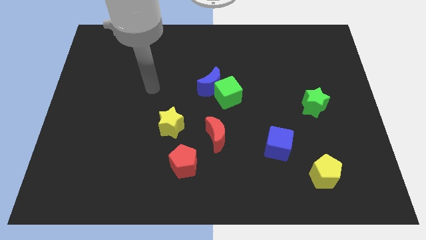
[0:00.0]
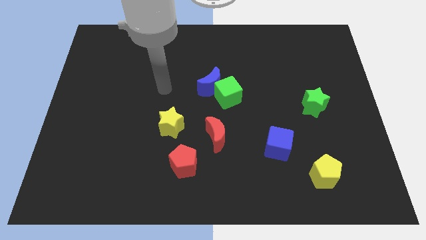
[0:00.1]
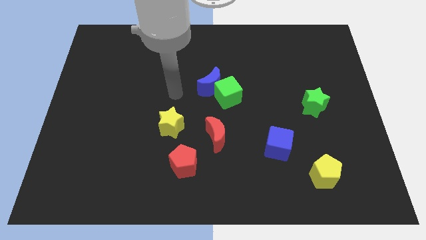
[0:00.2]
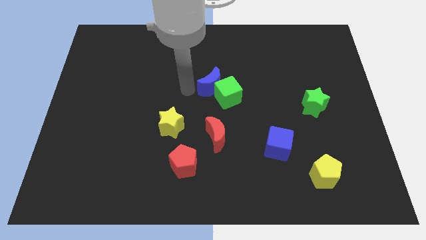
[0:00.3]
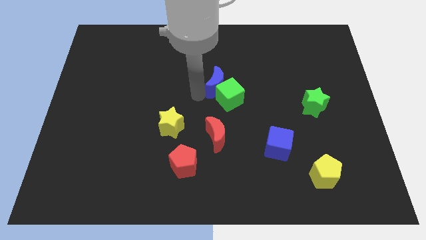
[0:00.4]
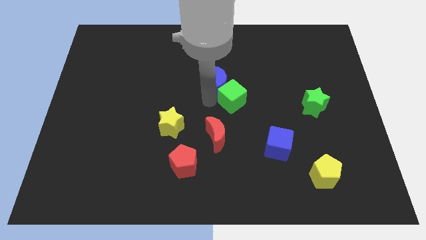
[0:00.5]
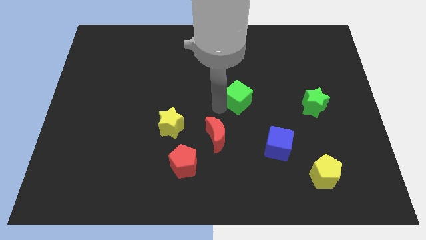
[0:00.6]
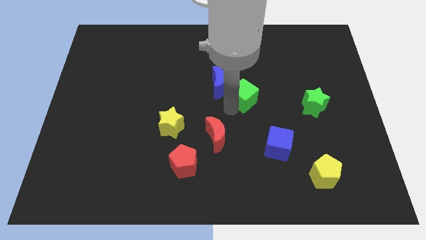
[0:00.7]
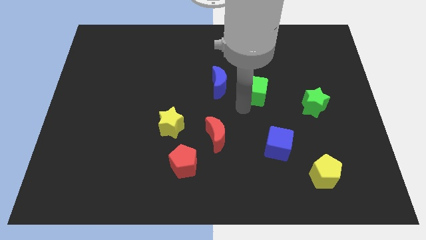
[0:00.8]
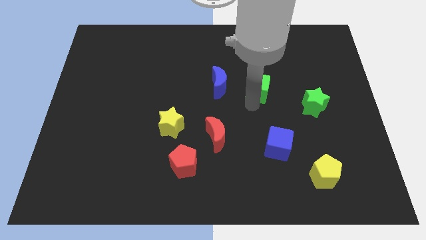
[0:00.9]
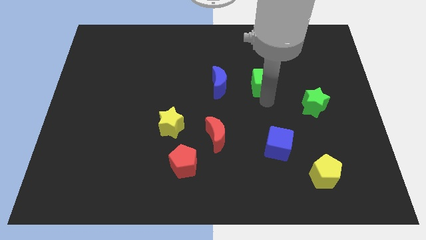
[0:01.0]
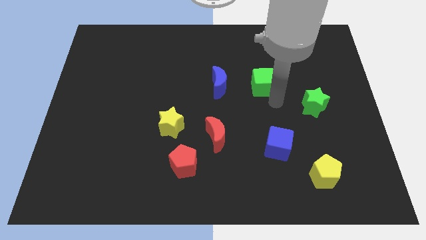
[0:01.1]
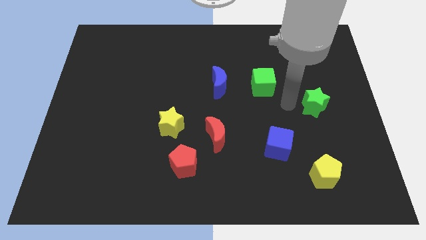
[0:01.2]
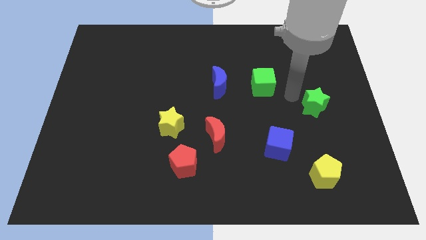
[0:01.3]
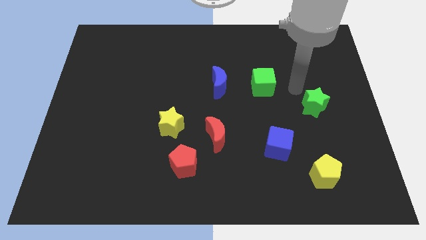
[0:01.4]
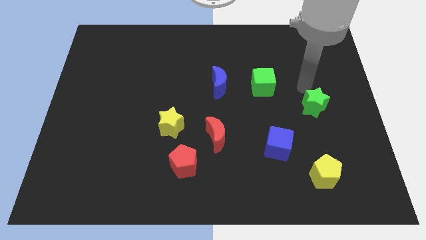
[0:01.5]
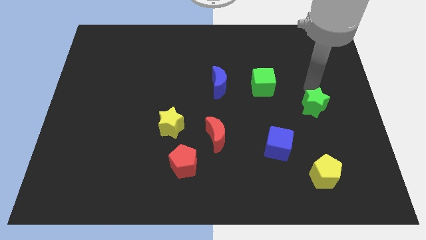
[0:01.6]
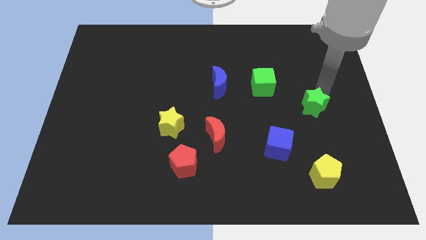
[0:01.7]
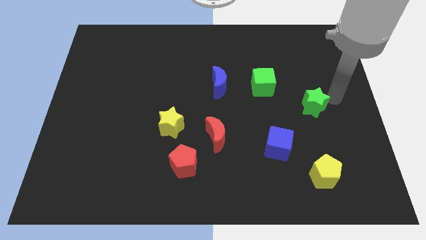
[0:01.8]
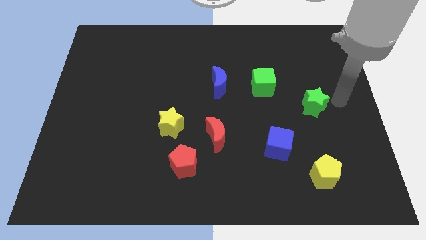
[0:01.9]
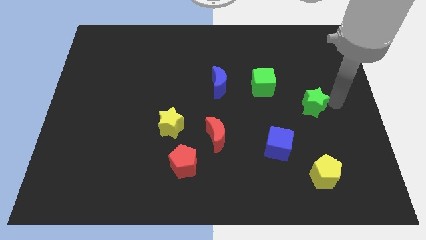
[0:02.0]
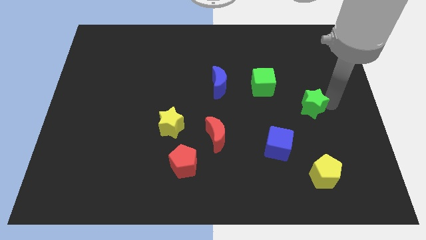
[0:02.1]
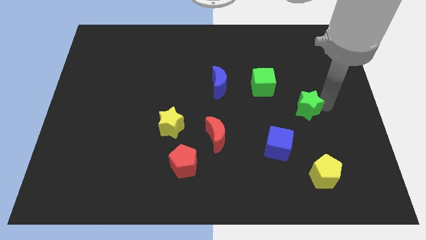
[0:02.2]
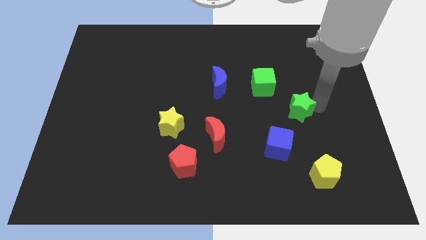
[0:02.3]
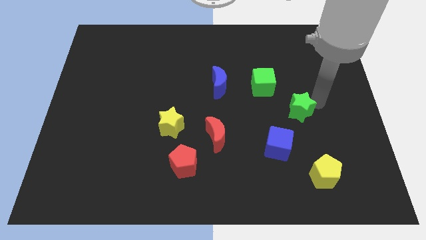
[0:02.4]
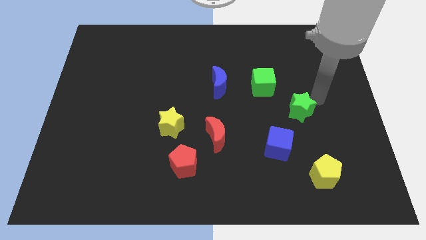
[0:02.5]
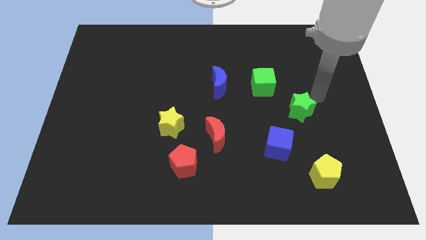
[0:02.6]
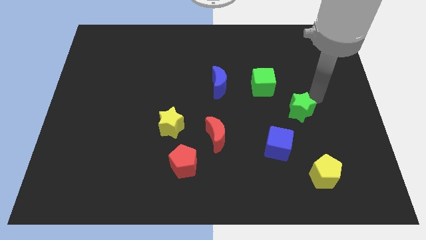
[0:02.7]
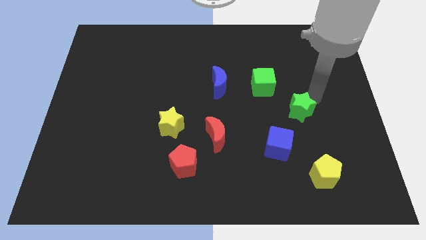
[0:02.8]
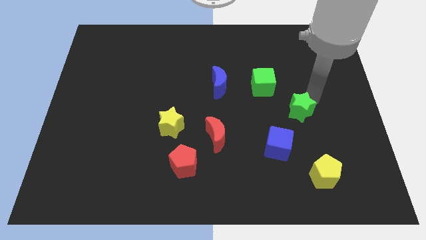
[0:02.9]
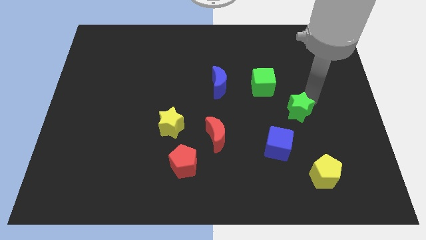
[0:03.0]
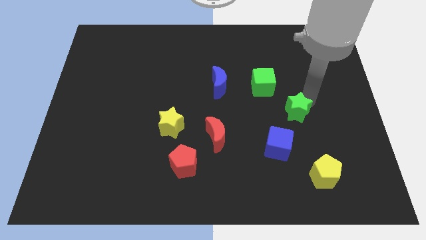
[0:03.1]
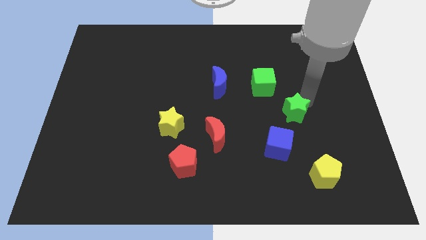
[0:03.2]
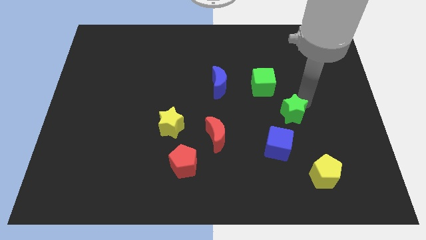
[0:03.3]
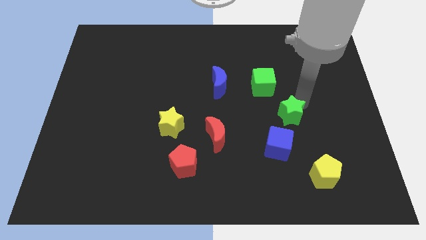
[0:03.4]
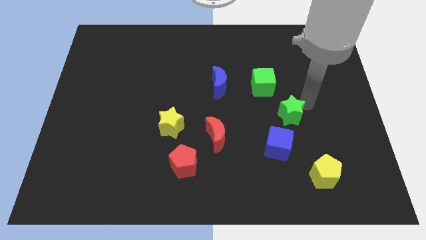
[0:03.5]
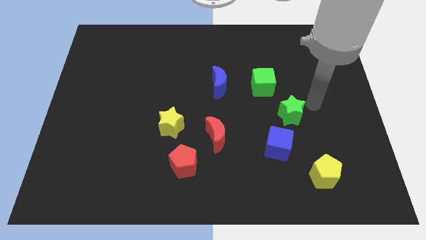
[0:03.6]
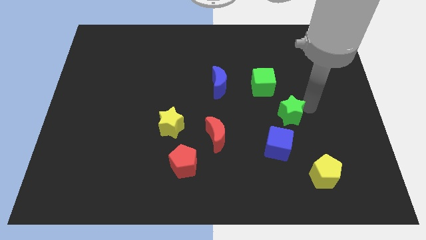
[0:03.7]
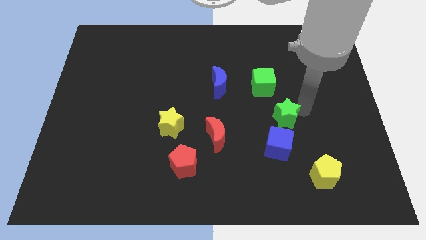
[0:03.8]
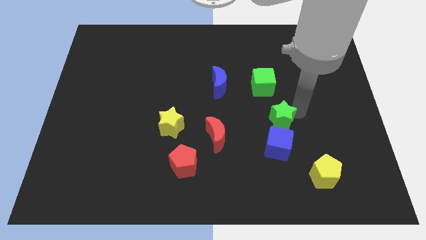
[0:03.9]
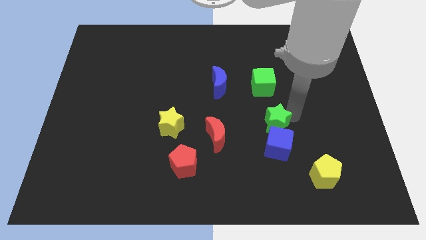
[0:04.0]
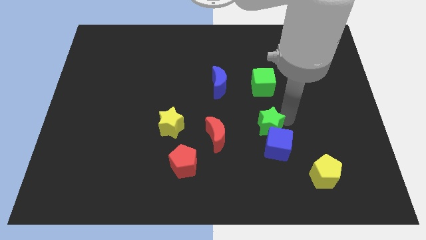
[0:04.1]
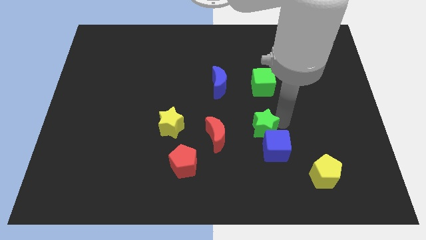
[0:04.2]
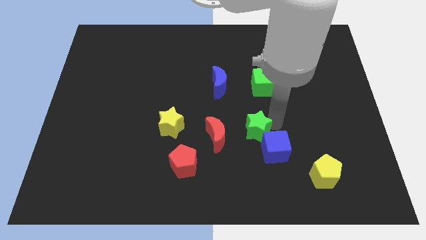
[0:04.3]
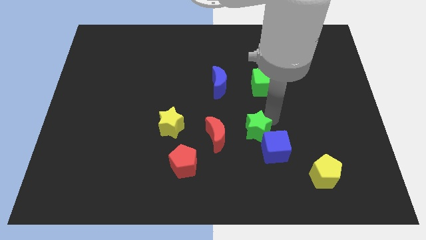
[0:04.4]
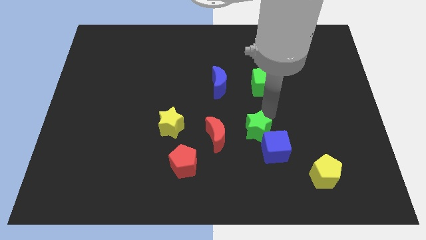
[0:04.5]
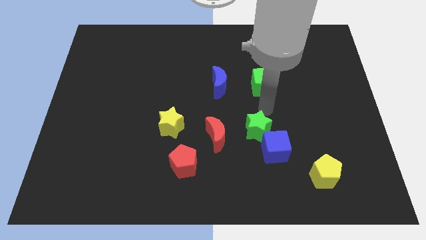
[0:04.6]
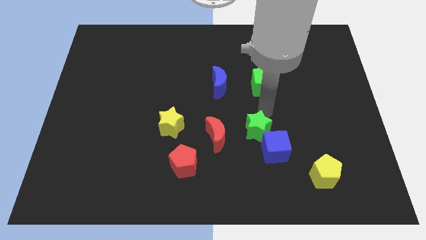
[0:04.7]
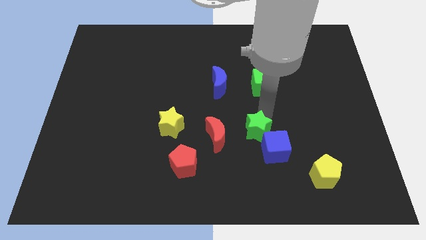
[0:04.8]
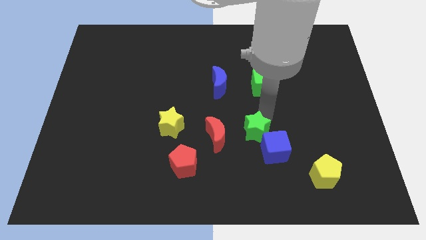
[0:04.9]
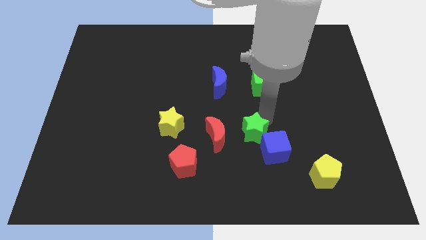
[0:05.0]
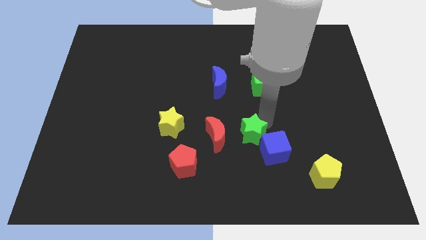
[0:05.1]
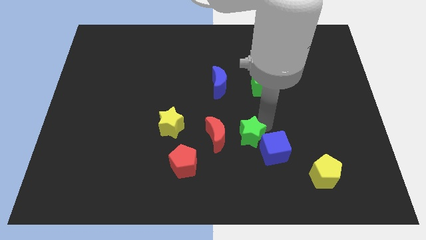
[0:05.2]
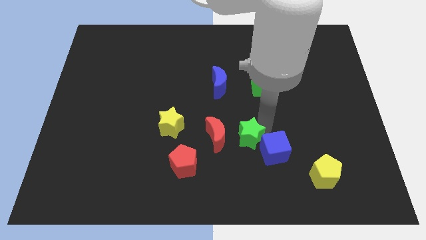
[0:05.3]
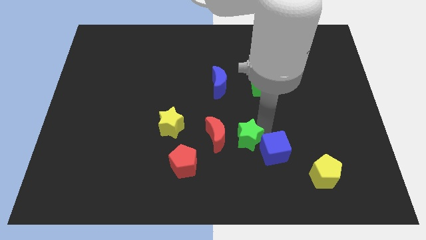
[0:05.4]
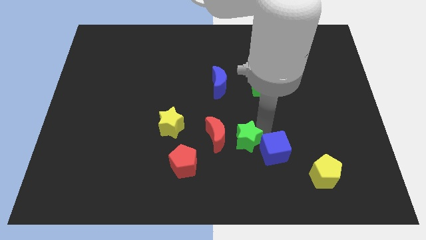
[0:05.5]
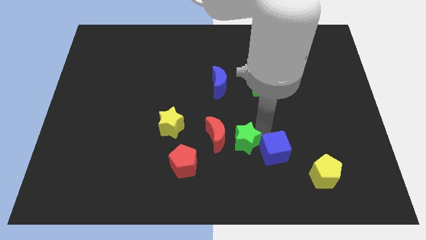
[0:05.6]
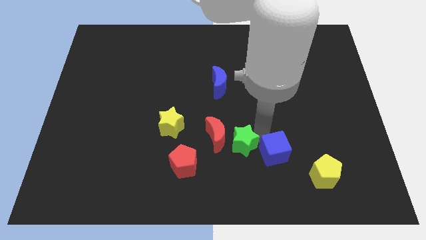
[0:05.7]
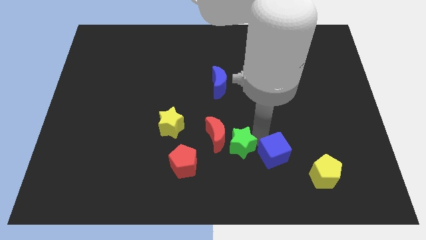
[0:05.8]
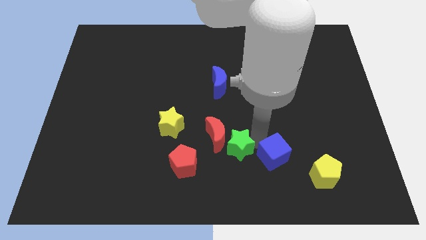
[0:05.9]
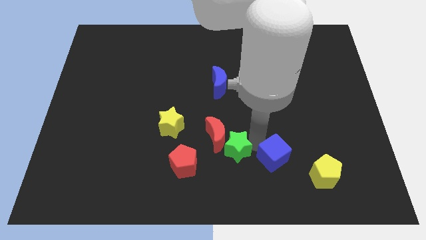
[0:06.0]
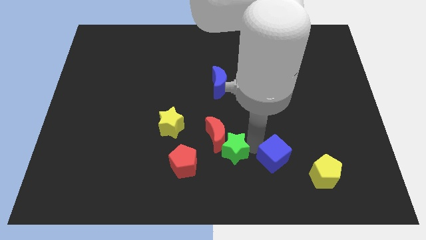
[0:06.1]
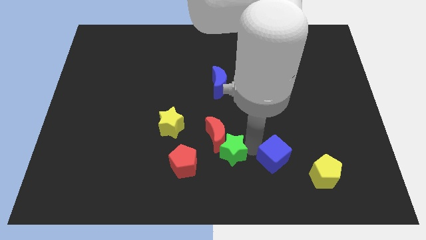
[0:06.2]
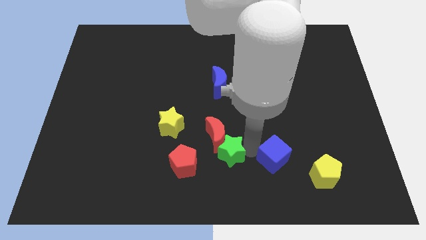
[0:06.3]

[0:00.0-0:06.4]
move the green star to the bottom
